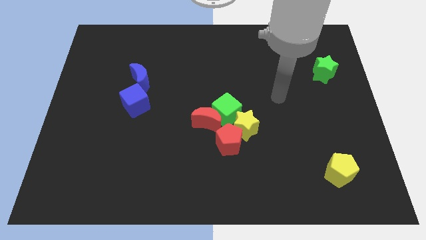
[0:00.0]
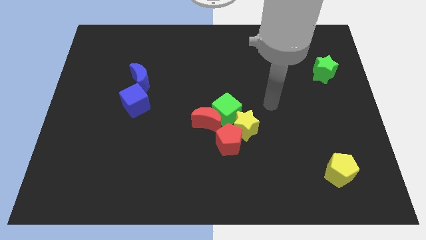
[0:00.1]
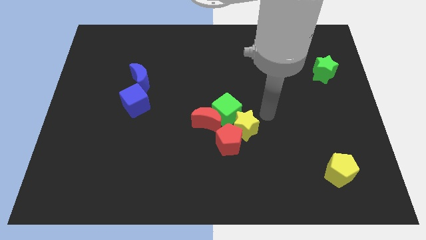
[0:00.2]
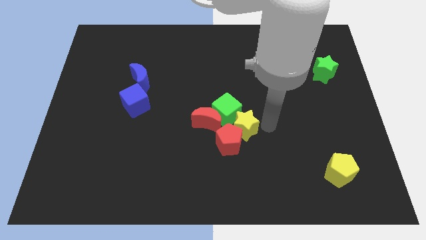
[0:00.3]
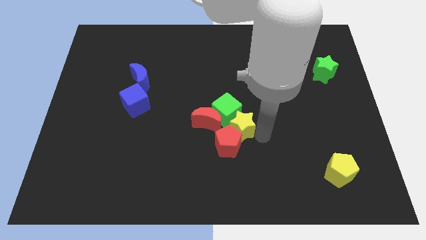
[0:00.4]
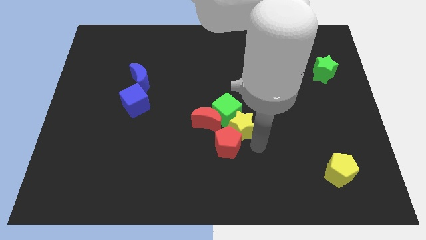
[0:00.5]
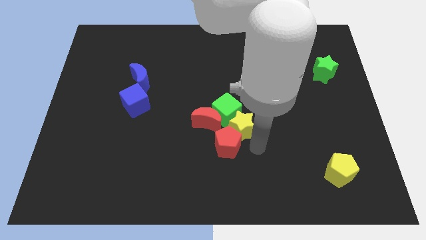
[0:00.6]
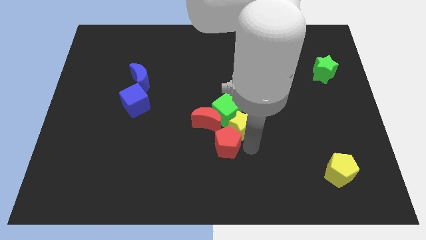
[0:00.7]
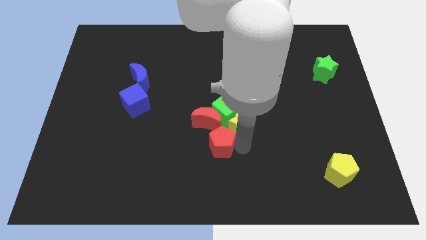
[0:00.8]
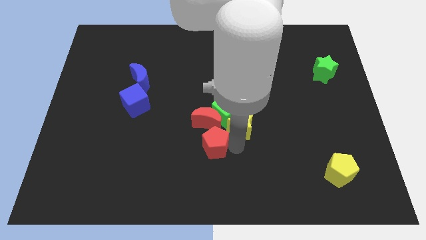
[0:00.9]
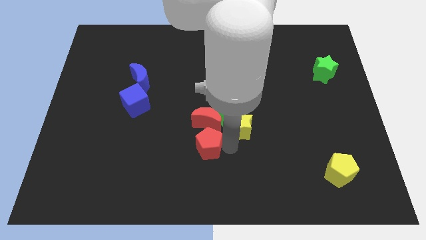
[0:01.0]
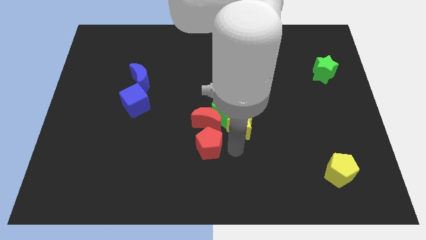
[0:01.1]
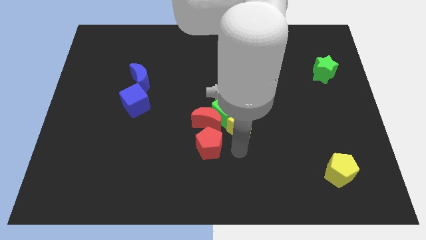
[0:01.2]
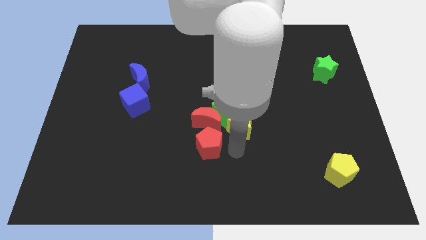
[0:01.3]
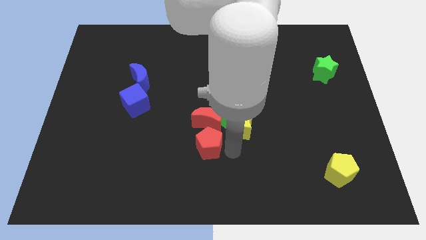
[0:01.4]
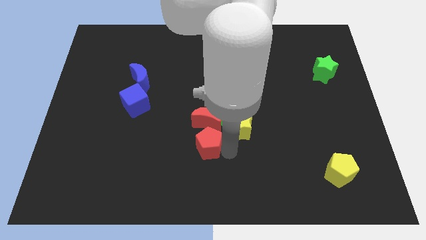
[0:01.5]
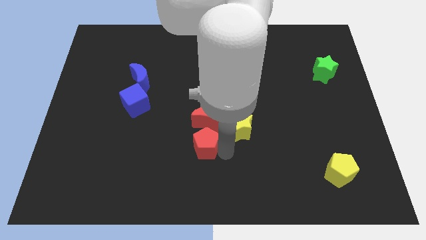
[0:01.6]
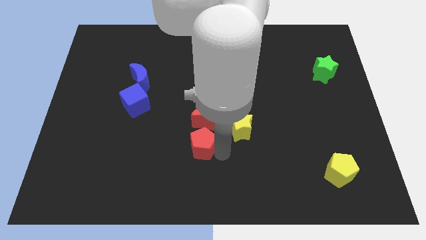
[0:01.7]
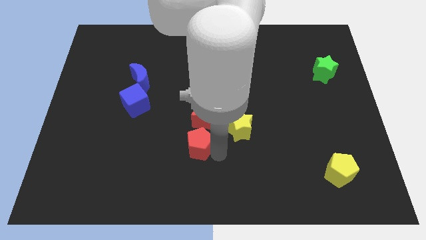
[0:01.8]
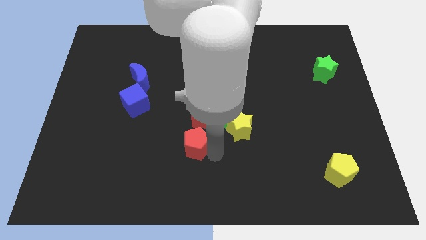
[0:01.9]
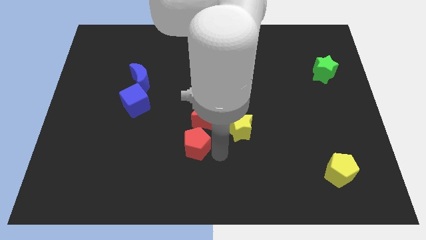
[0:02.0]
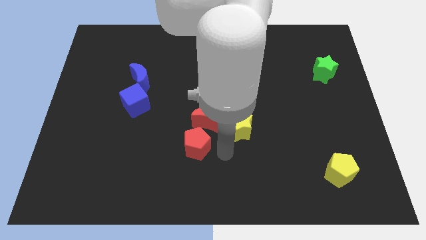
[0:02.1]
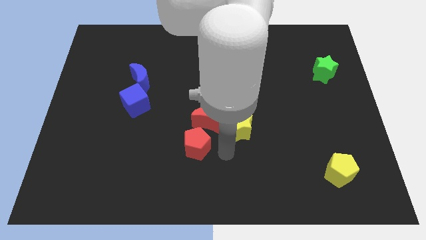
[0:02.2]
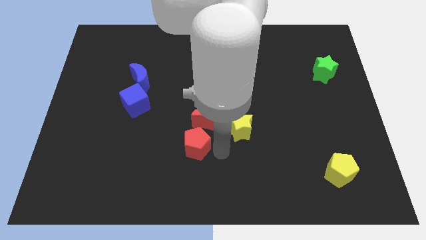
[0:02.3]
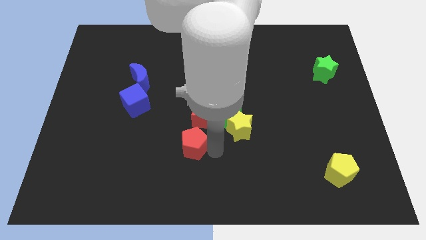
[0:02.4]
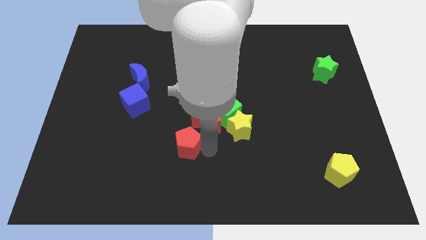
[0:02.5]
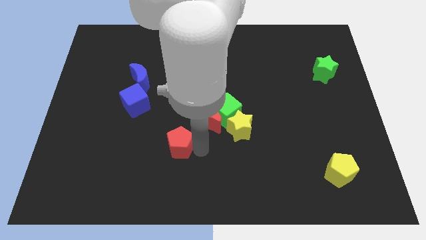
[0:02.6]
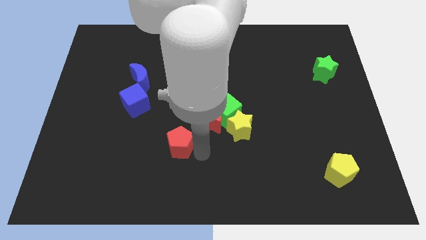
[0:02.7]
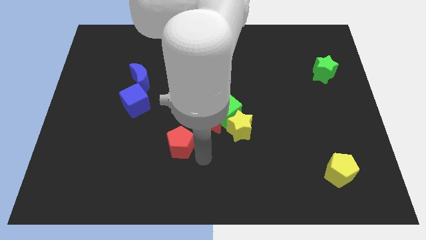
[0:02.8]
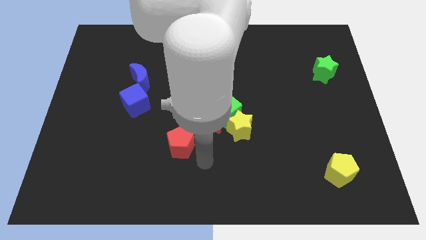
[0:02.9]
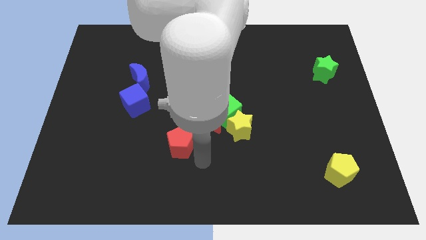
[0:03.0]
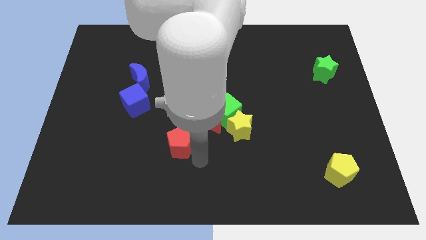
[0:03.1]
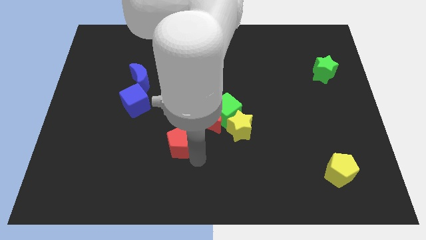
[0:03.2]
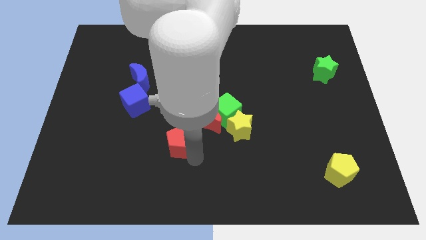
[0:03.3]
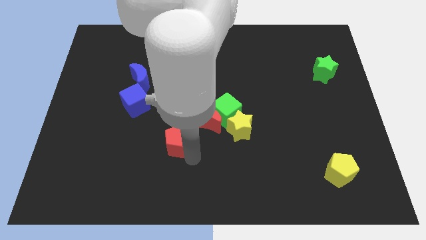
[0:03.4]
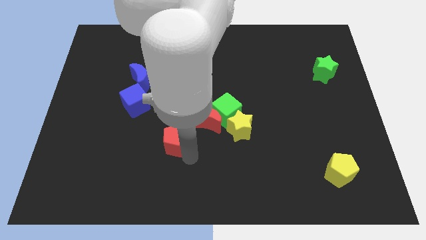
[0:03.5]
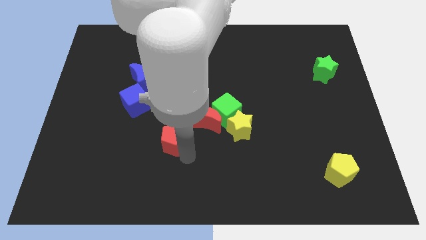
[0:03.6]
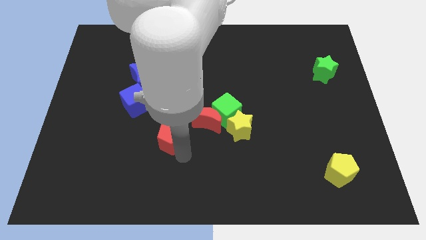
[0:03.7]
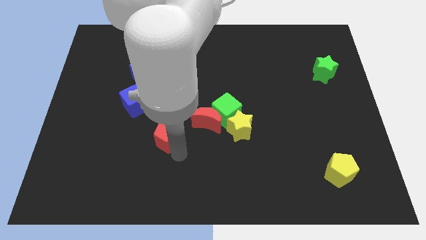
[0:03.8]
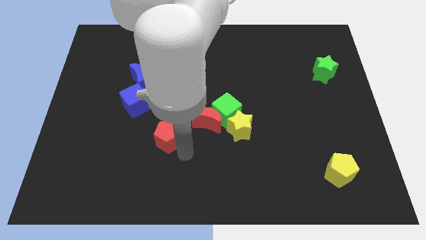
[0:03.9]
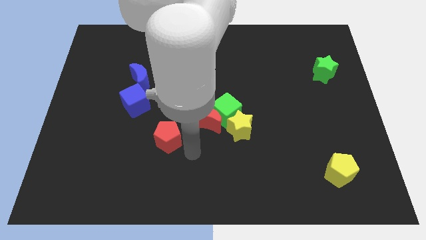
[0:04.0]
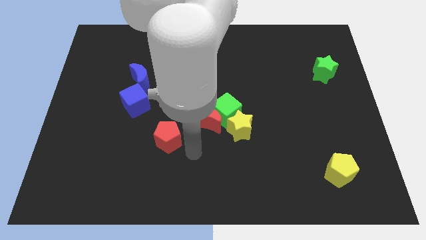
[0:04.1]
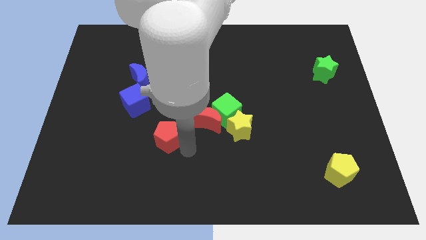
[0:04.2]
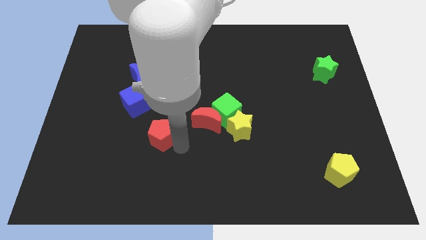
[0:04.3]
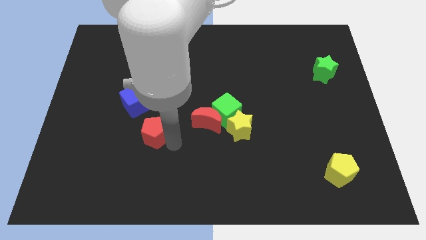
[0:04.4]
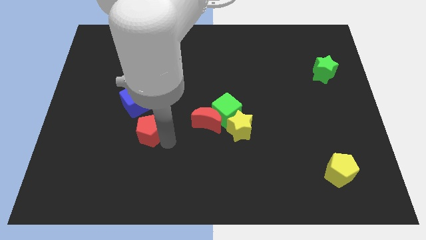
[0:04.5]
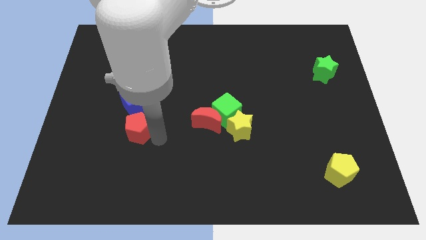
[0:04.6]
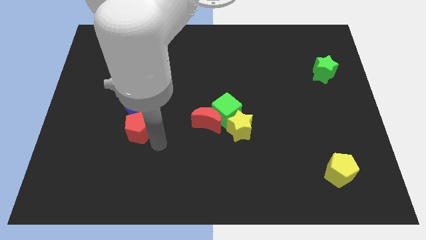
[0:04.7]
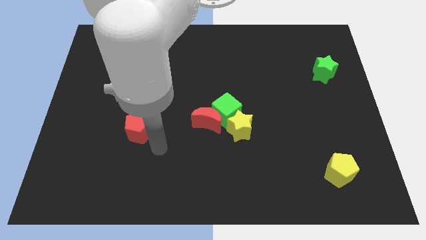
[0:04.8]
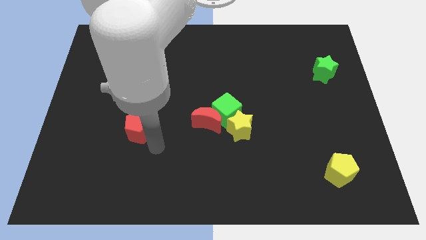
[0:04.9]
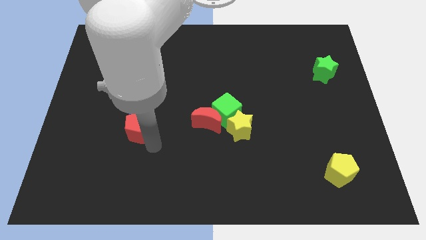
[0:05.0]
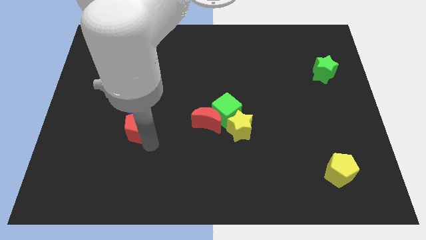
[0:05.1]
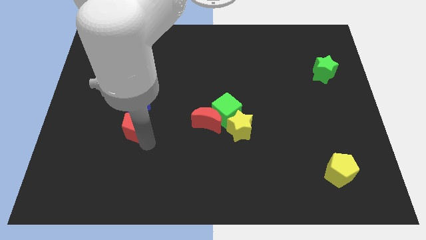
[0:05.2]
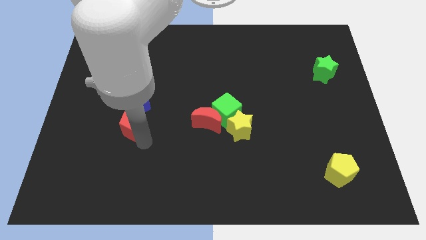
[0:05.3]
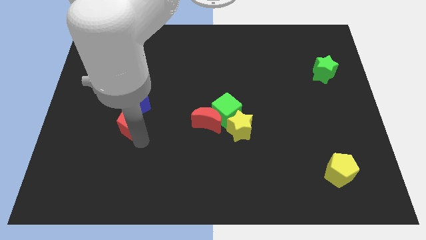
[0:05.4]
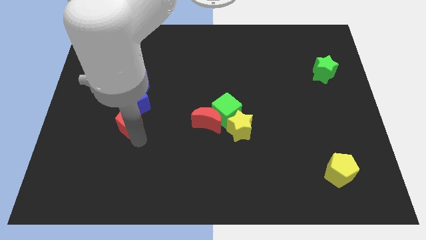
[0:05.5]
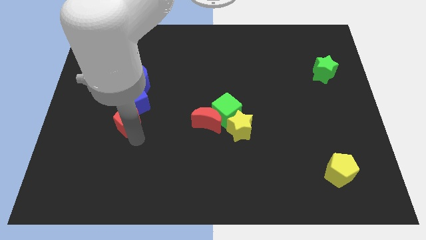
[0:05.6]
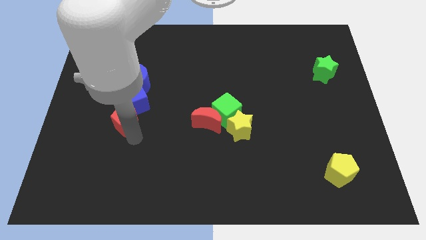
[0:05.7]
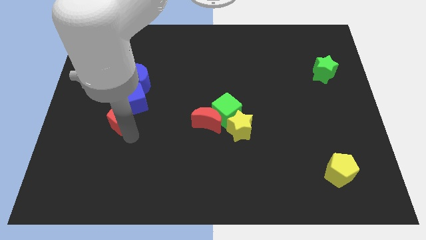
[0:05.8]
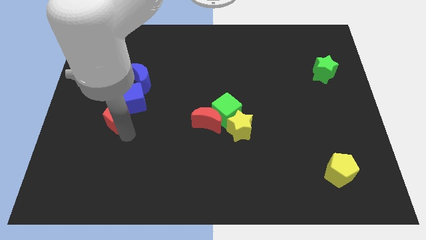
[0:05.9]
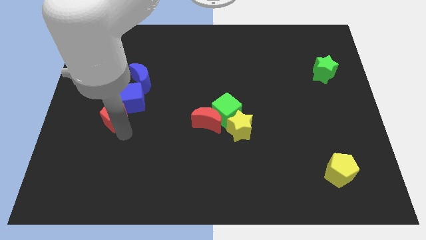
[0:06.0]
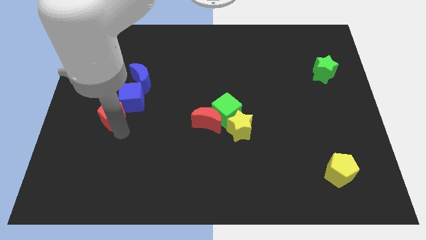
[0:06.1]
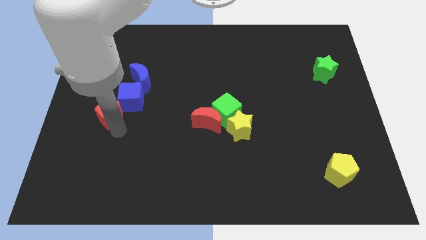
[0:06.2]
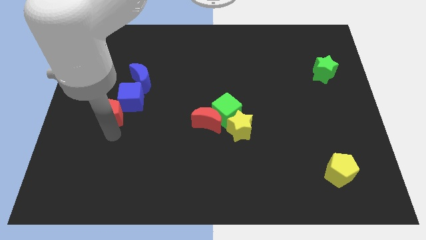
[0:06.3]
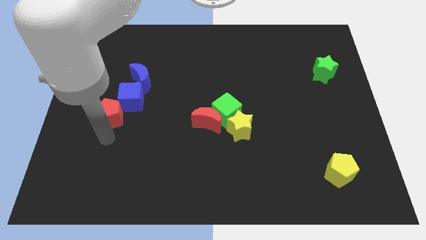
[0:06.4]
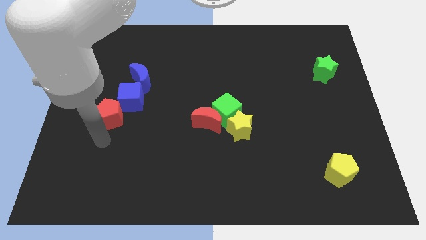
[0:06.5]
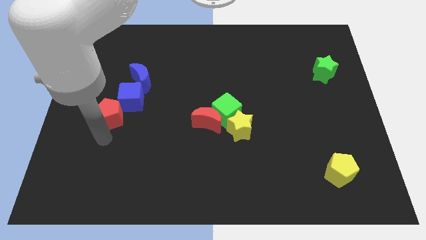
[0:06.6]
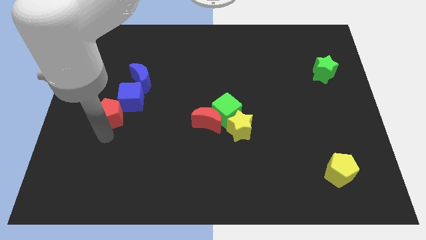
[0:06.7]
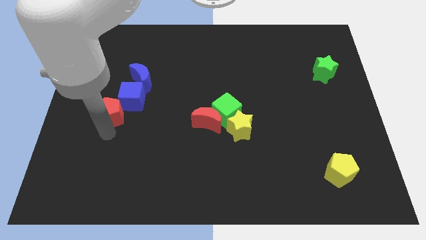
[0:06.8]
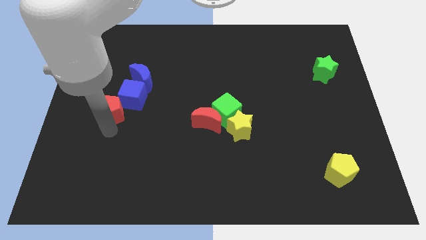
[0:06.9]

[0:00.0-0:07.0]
put the red pentagon diagonally down and to the left of the blue moon
